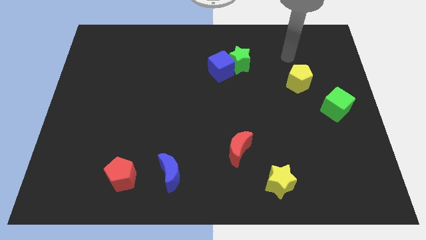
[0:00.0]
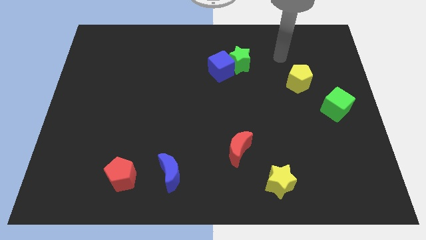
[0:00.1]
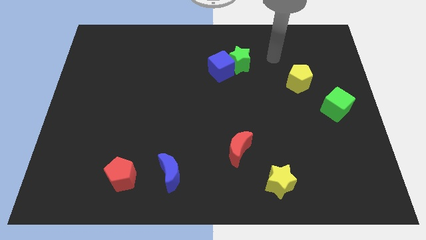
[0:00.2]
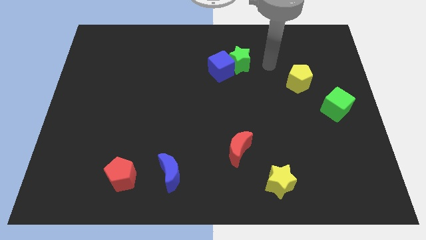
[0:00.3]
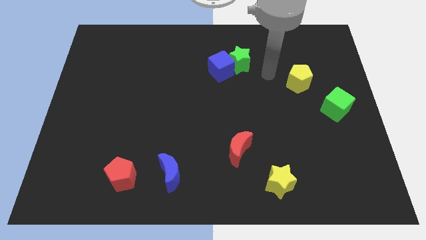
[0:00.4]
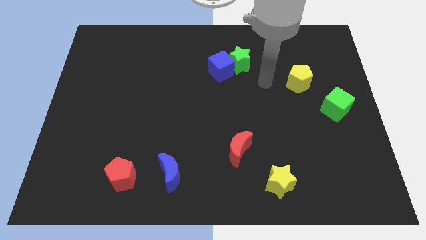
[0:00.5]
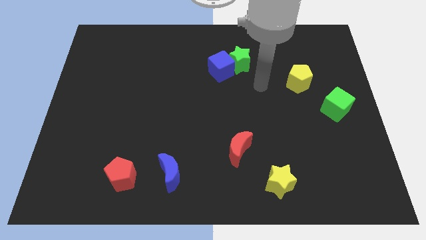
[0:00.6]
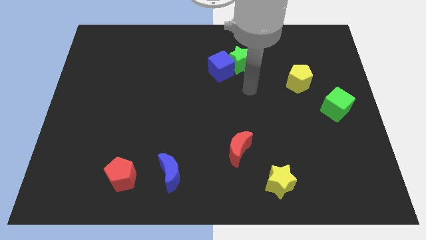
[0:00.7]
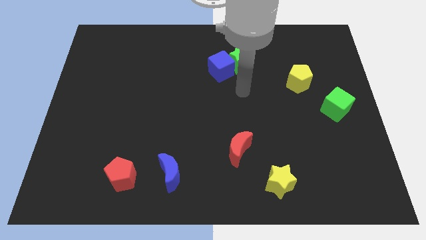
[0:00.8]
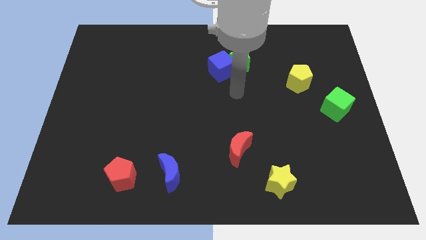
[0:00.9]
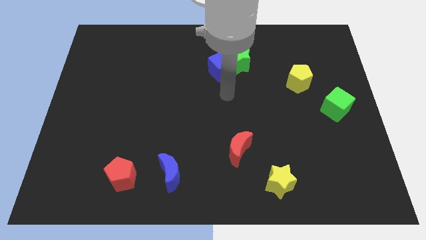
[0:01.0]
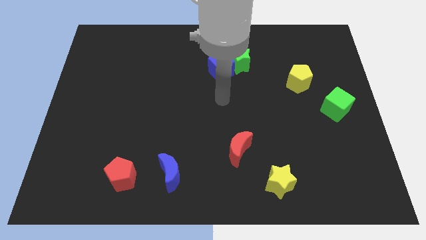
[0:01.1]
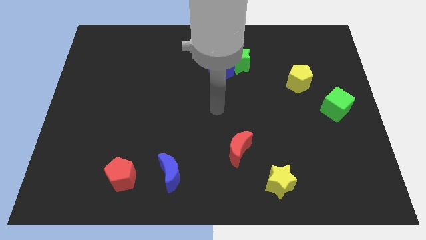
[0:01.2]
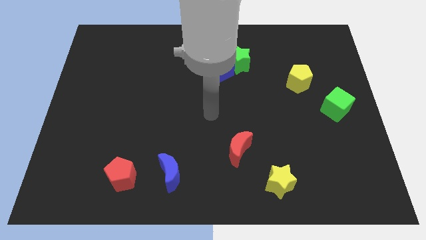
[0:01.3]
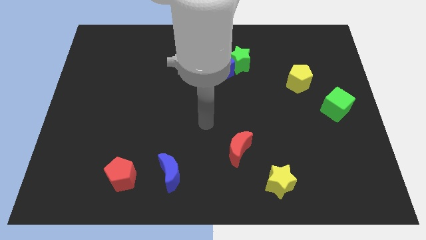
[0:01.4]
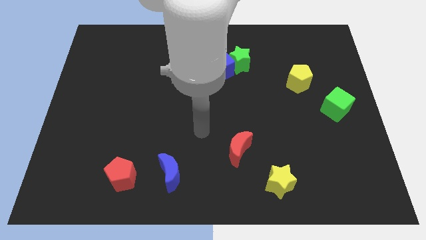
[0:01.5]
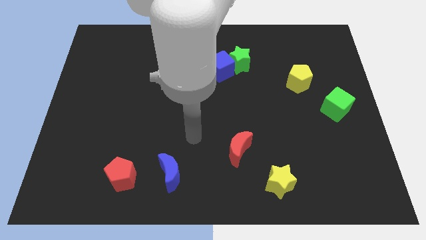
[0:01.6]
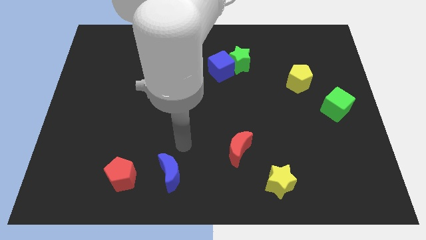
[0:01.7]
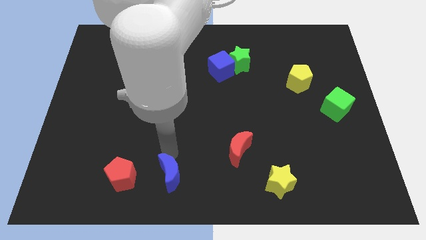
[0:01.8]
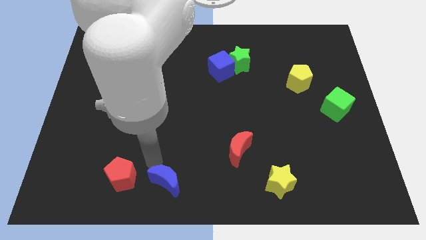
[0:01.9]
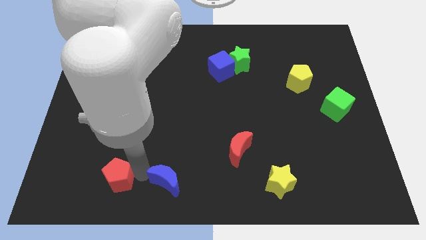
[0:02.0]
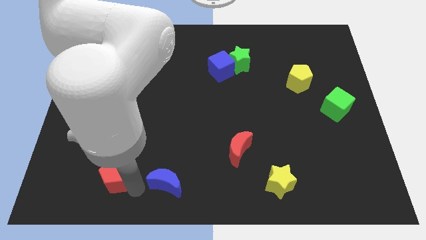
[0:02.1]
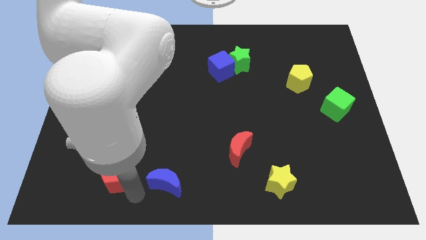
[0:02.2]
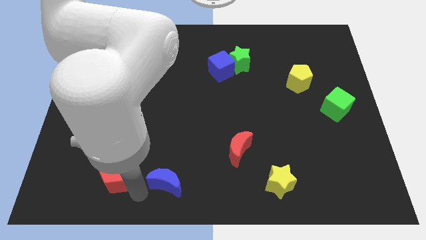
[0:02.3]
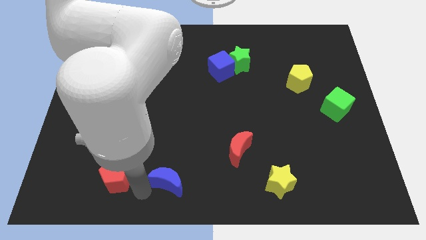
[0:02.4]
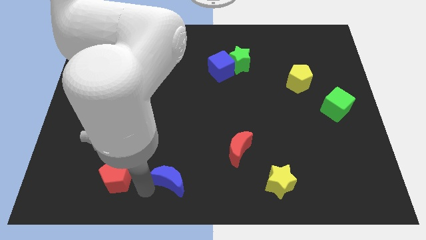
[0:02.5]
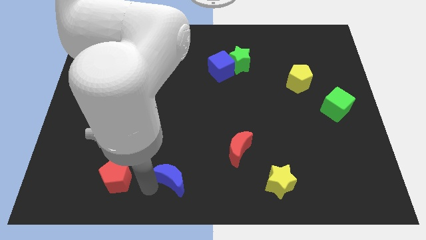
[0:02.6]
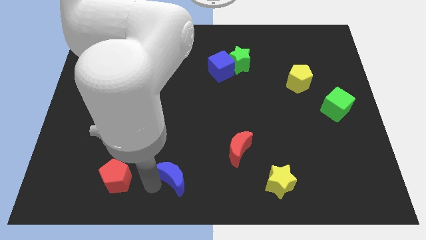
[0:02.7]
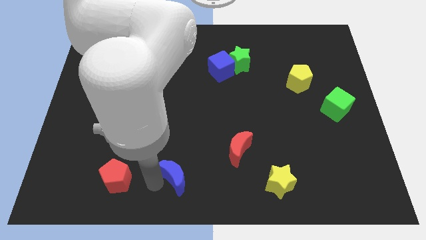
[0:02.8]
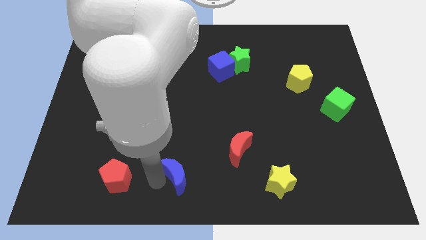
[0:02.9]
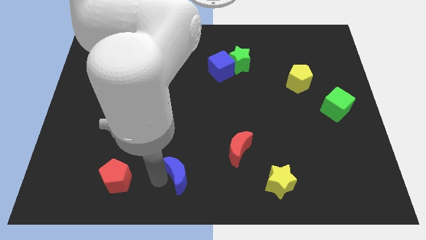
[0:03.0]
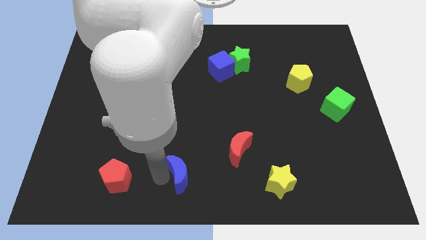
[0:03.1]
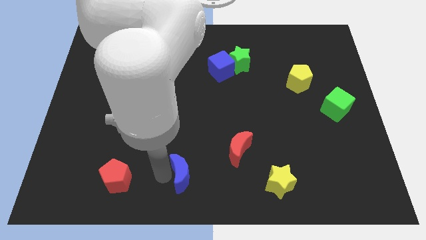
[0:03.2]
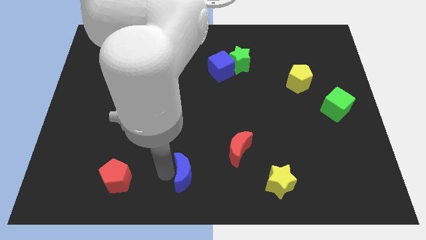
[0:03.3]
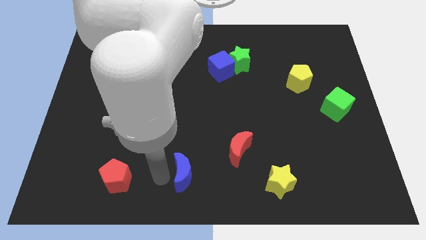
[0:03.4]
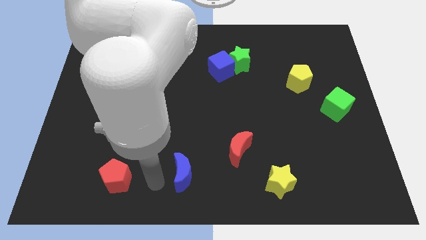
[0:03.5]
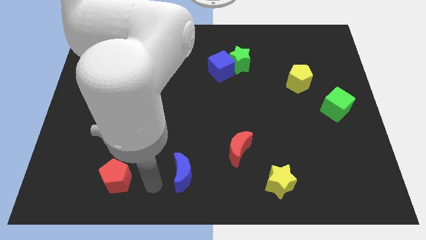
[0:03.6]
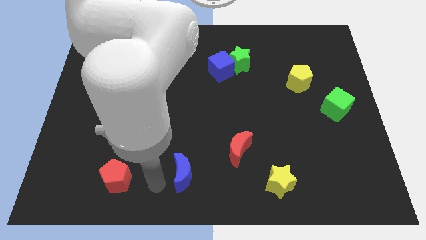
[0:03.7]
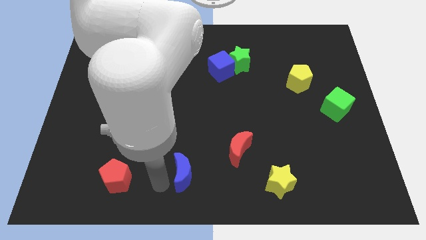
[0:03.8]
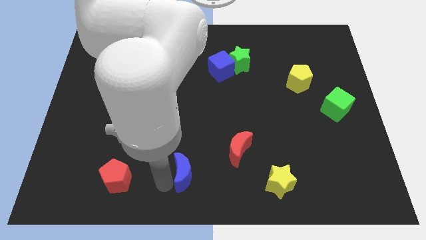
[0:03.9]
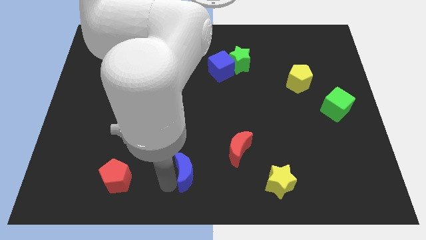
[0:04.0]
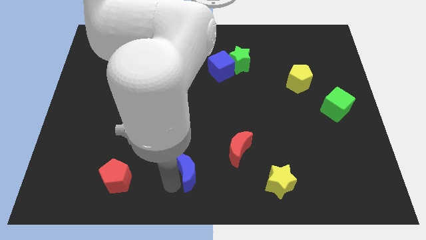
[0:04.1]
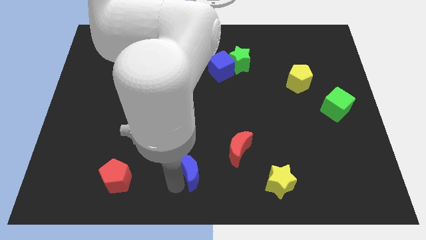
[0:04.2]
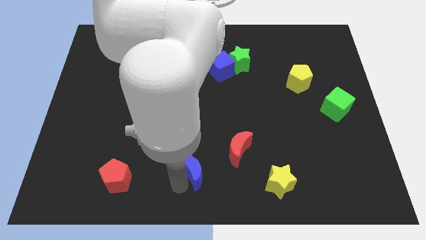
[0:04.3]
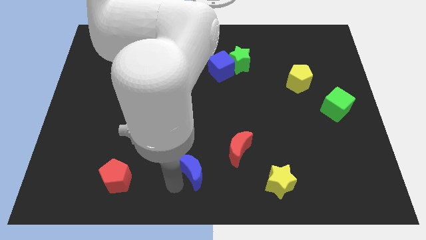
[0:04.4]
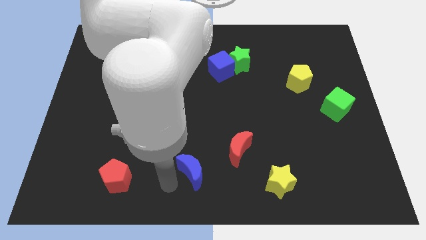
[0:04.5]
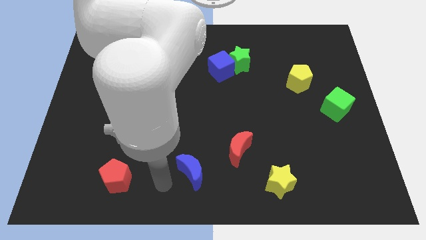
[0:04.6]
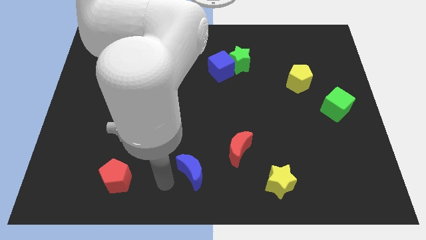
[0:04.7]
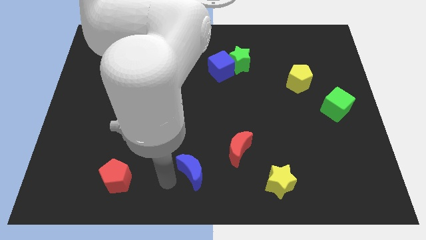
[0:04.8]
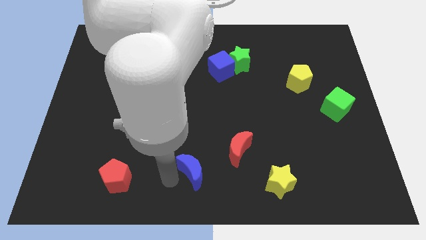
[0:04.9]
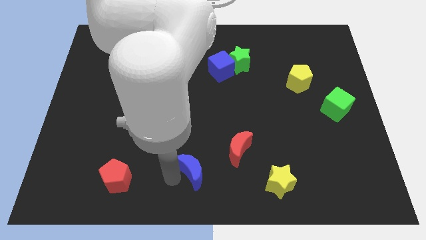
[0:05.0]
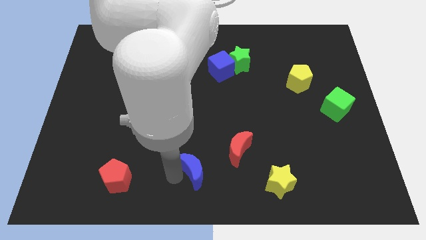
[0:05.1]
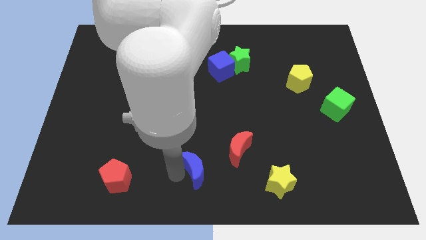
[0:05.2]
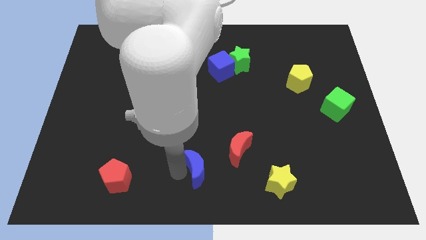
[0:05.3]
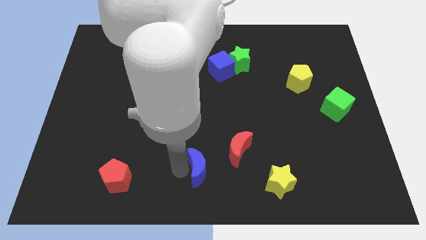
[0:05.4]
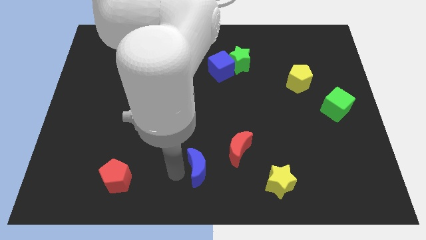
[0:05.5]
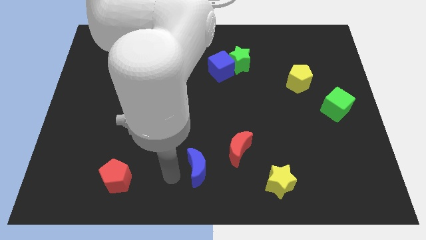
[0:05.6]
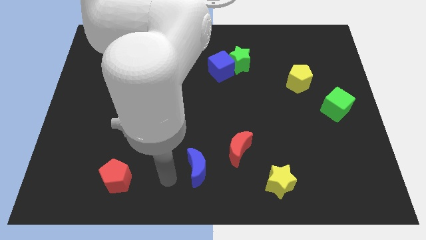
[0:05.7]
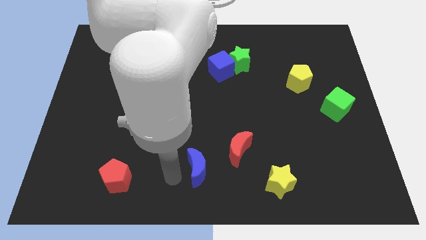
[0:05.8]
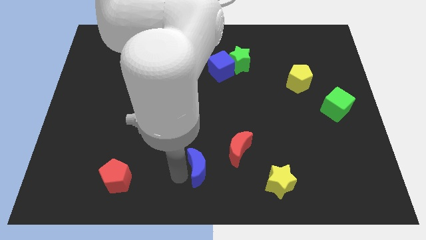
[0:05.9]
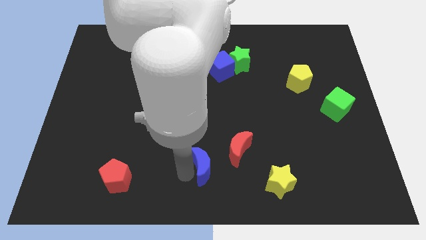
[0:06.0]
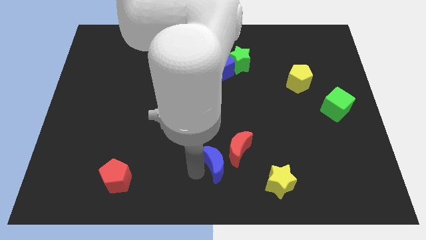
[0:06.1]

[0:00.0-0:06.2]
move the blue moon next to the red moon
